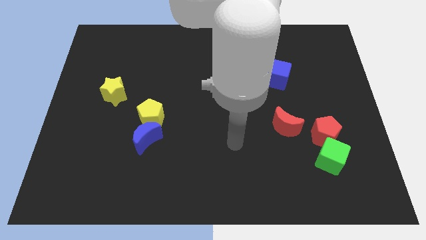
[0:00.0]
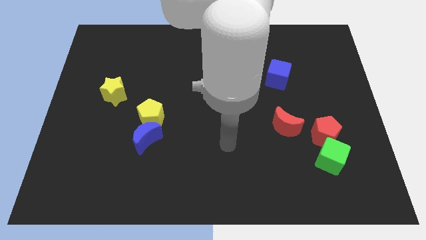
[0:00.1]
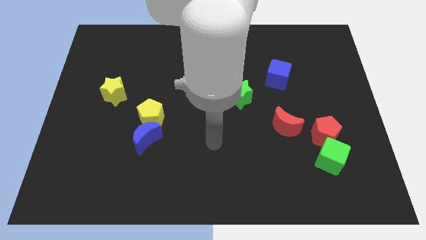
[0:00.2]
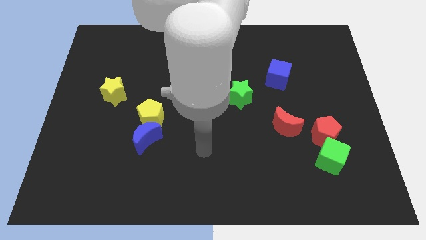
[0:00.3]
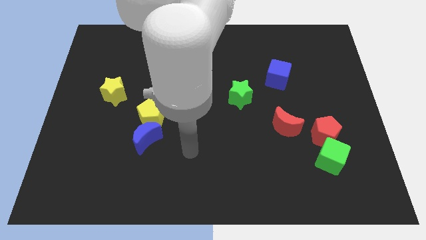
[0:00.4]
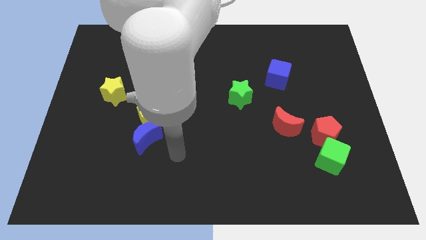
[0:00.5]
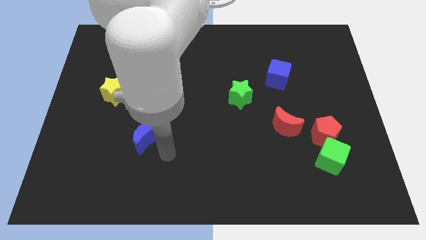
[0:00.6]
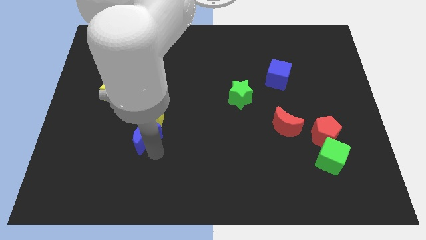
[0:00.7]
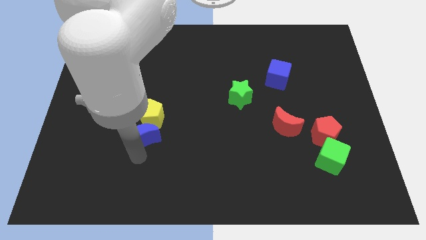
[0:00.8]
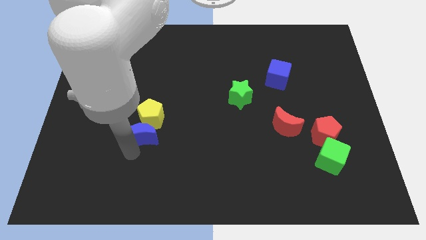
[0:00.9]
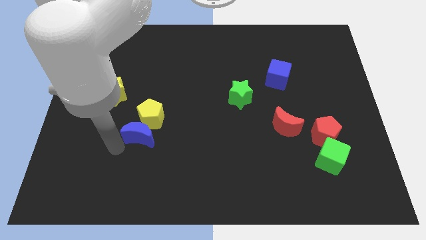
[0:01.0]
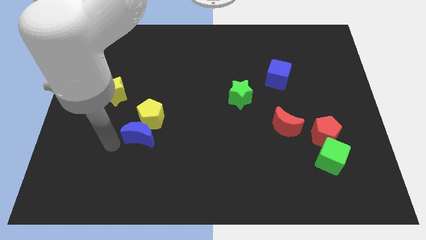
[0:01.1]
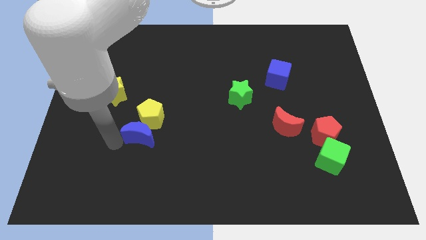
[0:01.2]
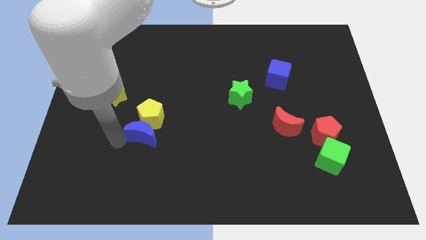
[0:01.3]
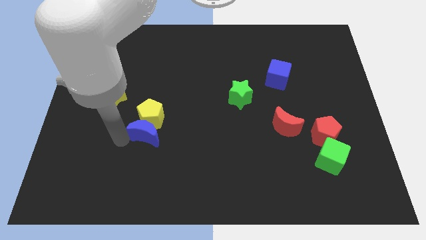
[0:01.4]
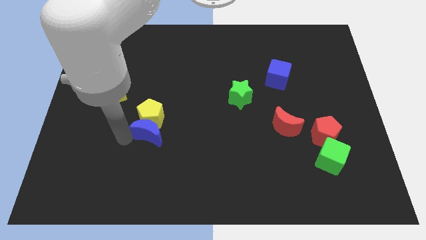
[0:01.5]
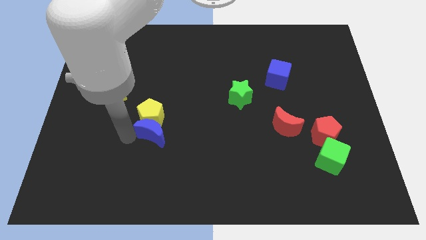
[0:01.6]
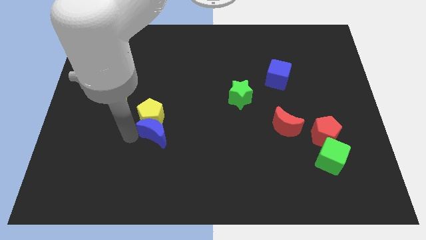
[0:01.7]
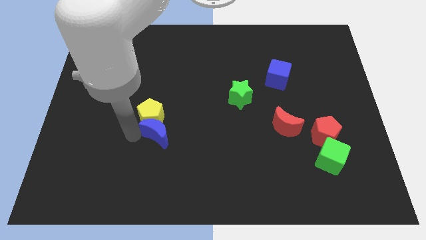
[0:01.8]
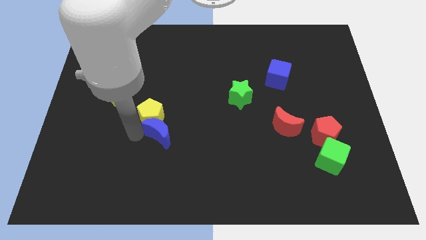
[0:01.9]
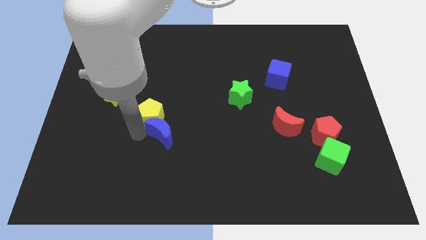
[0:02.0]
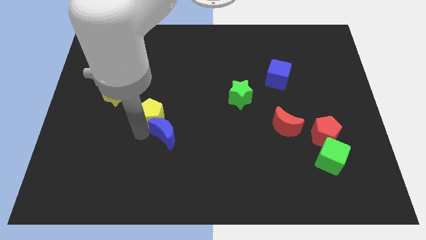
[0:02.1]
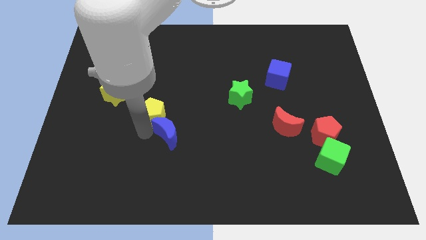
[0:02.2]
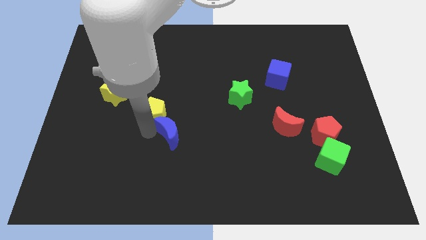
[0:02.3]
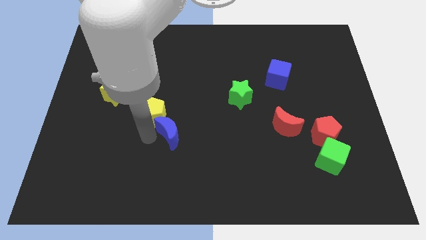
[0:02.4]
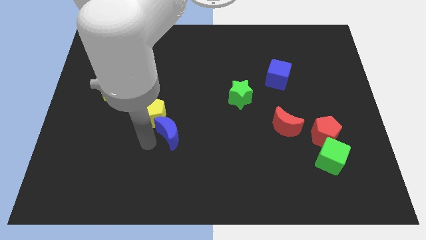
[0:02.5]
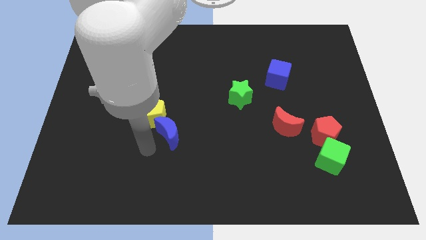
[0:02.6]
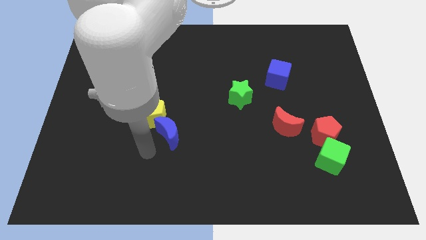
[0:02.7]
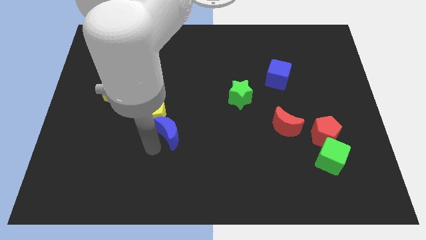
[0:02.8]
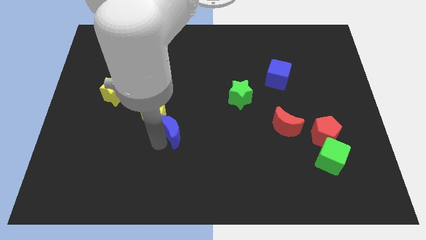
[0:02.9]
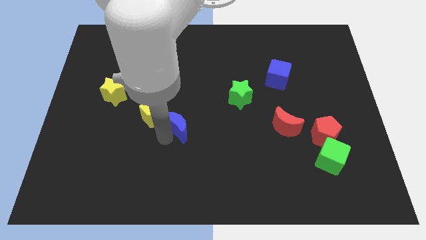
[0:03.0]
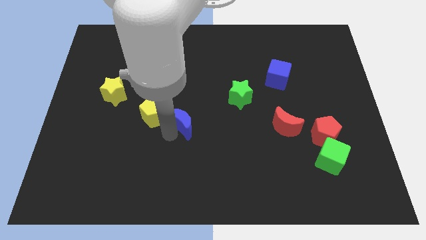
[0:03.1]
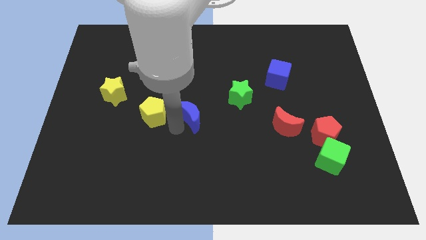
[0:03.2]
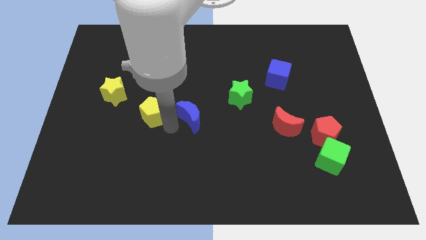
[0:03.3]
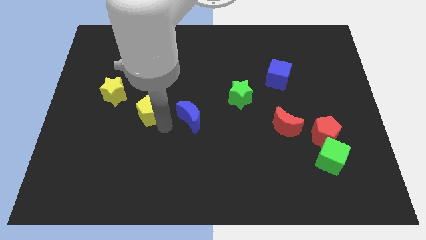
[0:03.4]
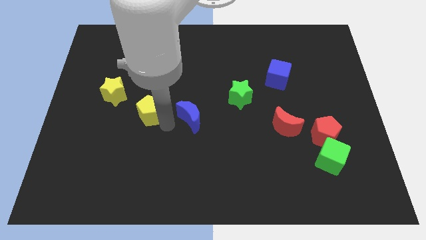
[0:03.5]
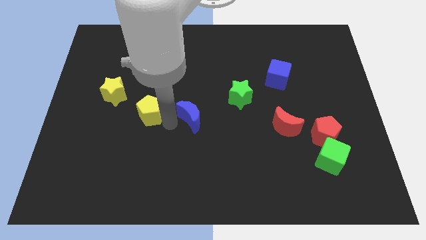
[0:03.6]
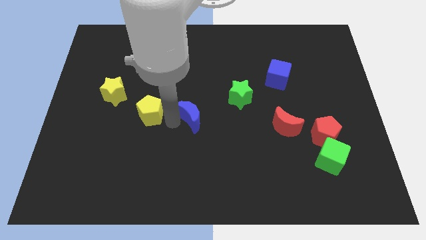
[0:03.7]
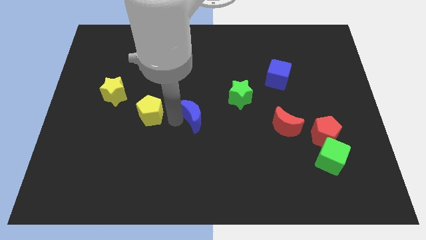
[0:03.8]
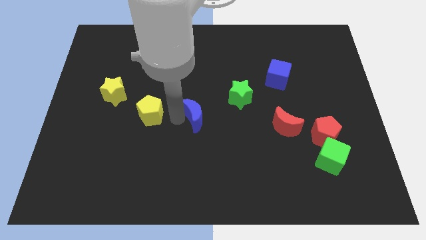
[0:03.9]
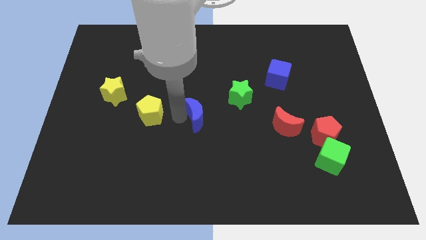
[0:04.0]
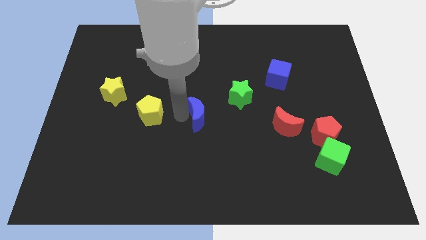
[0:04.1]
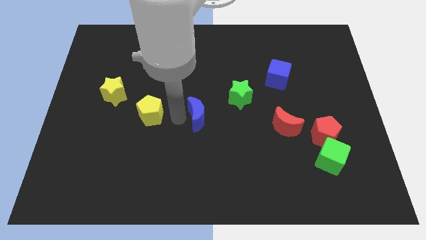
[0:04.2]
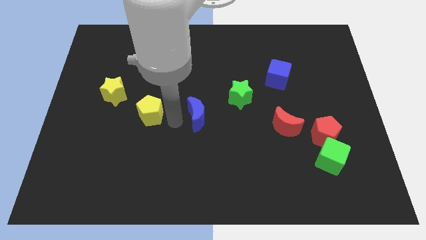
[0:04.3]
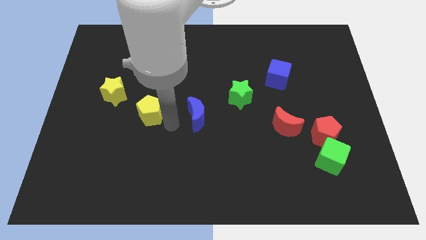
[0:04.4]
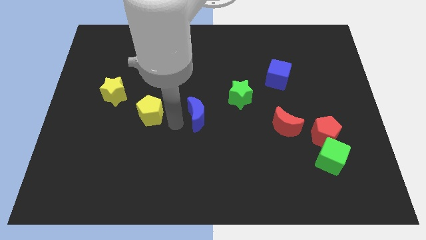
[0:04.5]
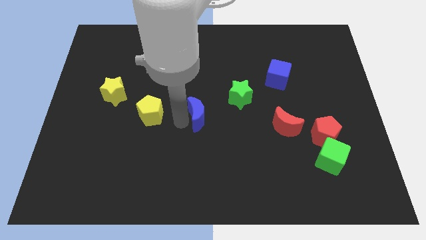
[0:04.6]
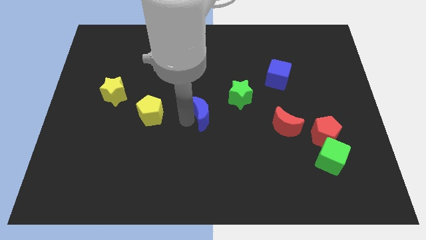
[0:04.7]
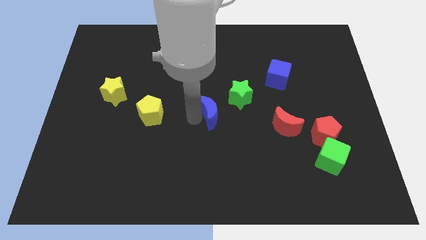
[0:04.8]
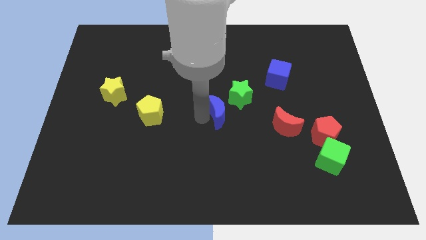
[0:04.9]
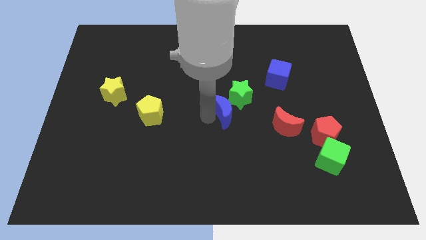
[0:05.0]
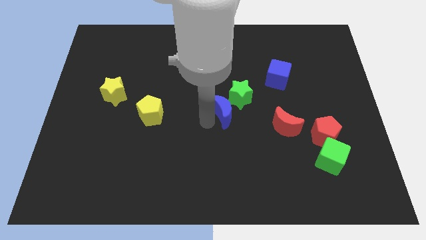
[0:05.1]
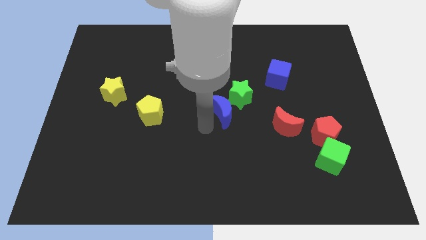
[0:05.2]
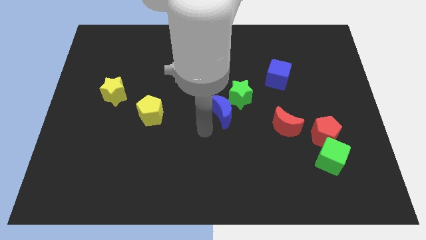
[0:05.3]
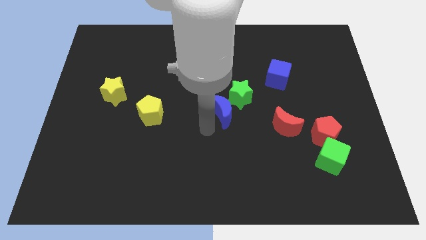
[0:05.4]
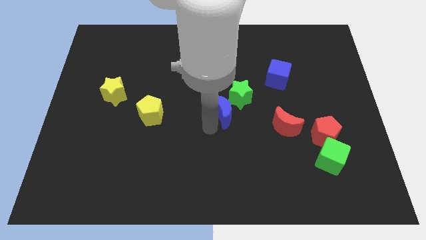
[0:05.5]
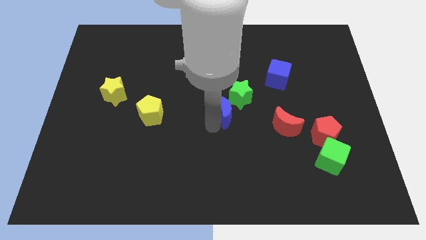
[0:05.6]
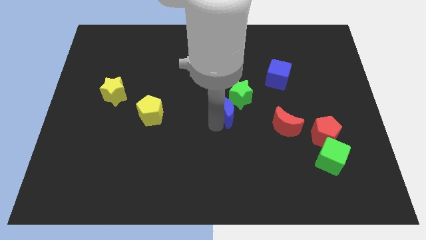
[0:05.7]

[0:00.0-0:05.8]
move the blue moon to the green star

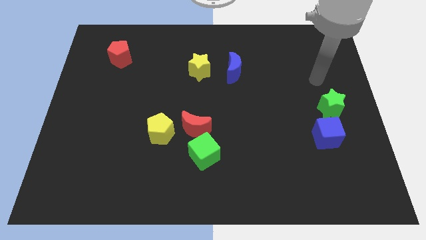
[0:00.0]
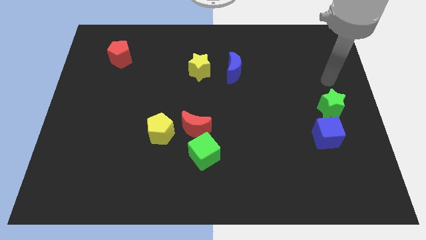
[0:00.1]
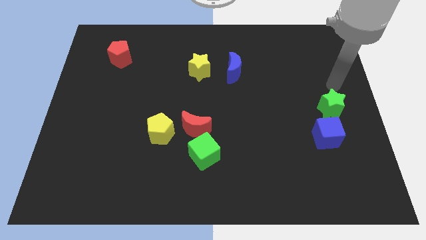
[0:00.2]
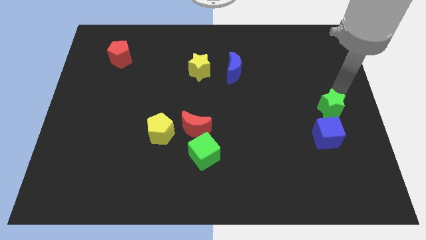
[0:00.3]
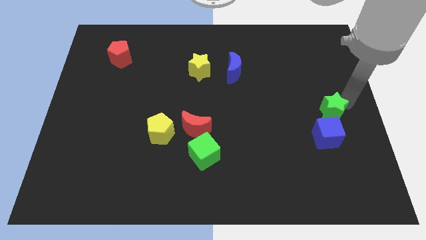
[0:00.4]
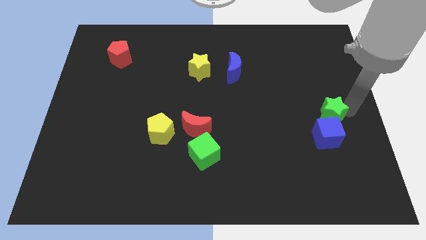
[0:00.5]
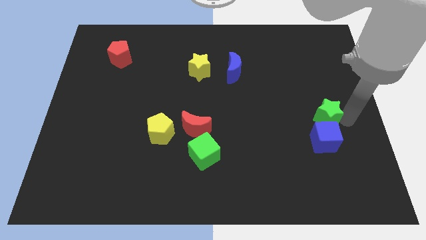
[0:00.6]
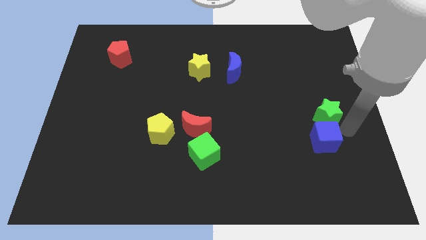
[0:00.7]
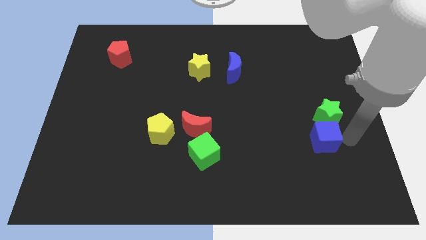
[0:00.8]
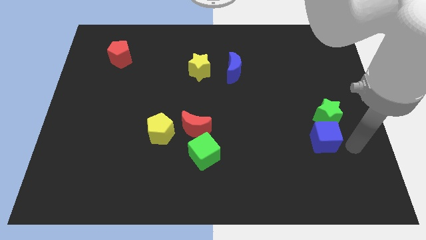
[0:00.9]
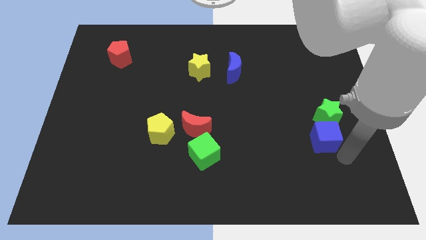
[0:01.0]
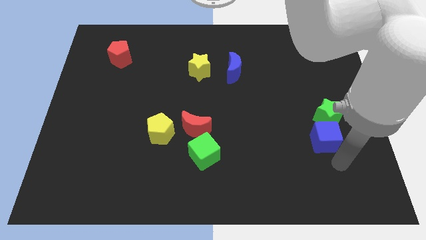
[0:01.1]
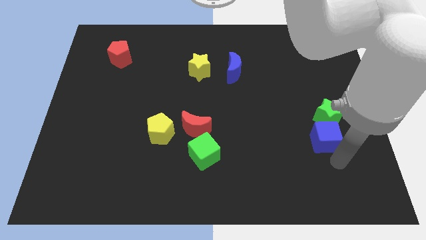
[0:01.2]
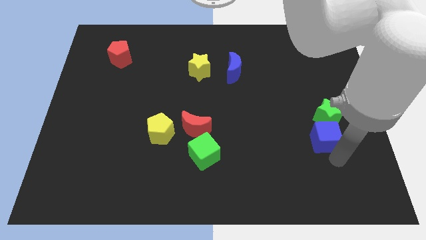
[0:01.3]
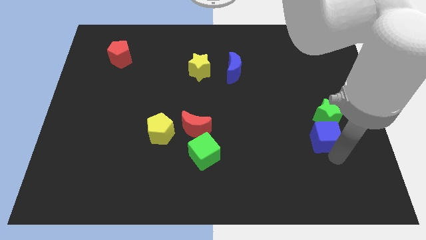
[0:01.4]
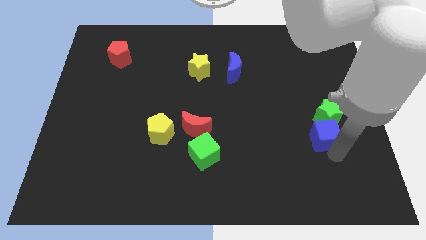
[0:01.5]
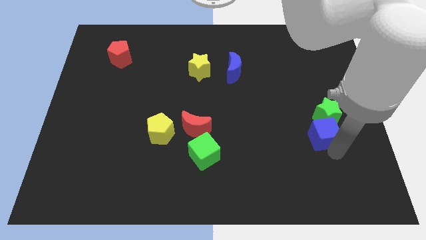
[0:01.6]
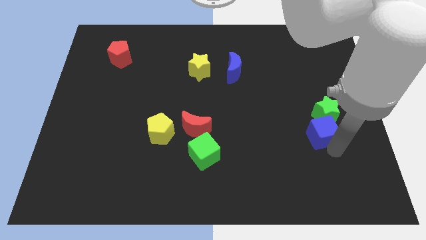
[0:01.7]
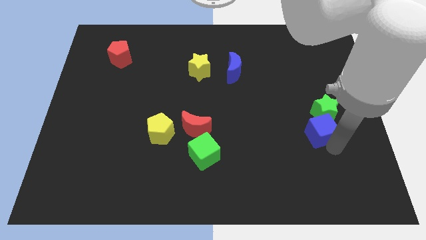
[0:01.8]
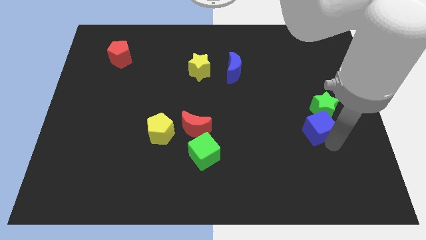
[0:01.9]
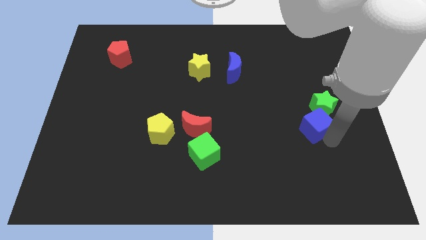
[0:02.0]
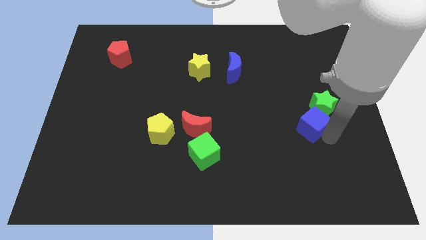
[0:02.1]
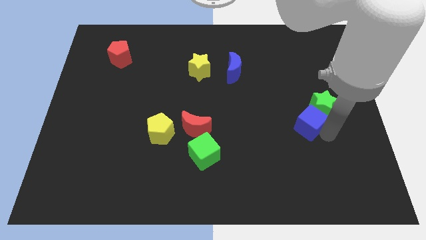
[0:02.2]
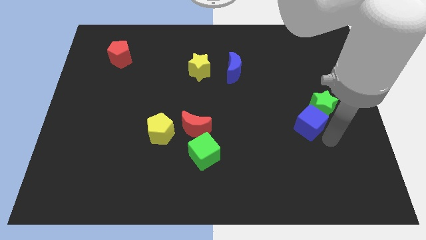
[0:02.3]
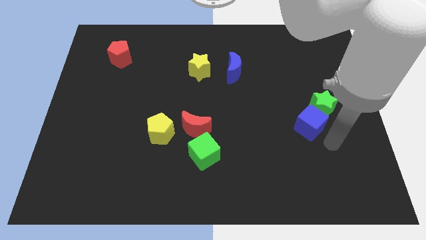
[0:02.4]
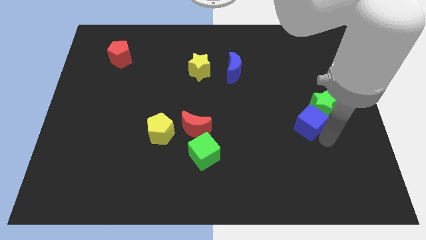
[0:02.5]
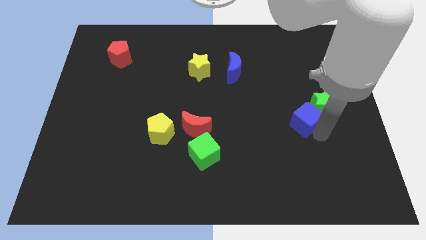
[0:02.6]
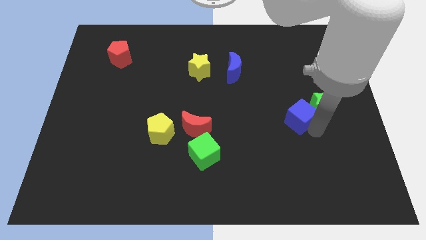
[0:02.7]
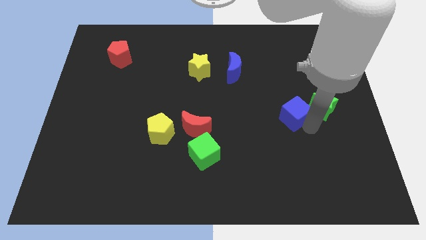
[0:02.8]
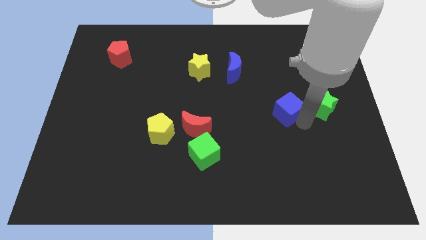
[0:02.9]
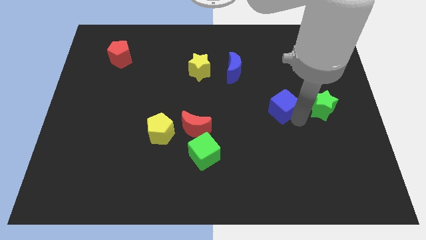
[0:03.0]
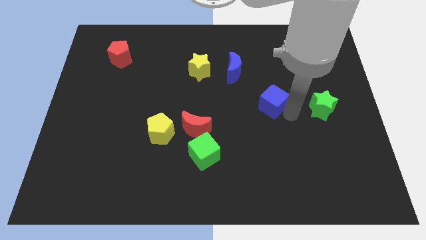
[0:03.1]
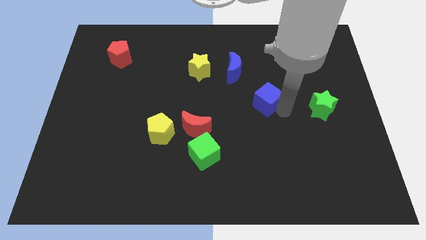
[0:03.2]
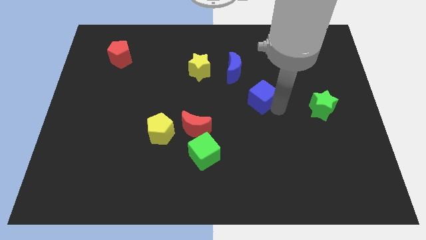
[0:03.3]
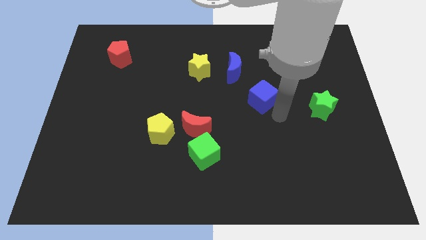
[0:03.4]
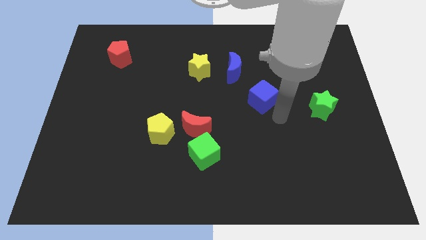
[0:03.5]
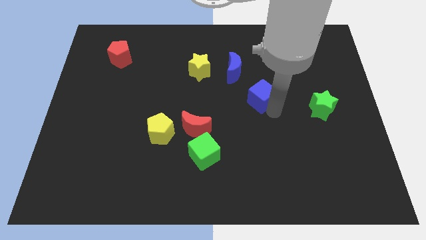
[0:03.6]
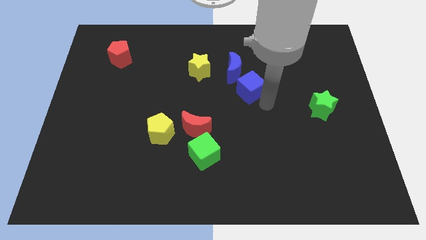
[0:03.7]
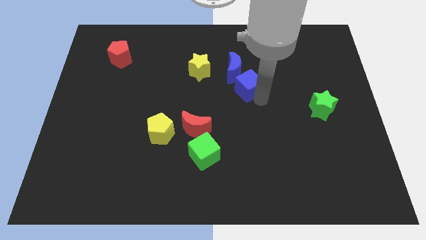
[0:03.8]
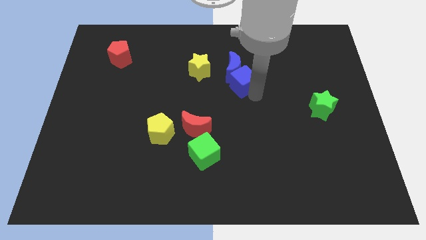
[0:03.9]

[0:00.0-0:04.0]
put the blue cube next to the blue moon
